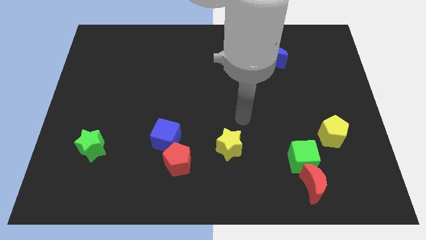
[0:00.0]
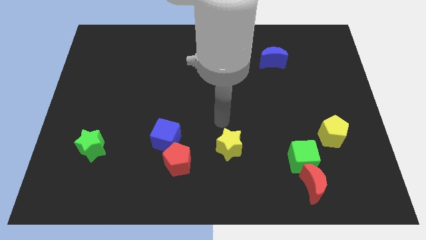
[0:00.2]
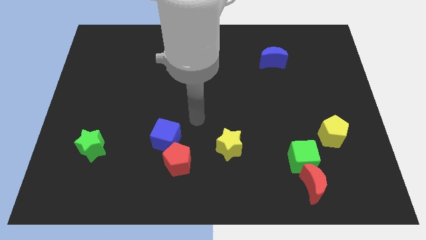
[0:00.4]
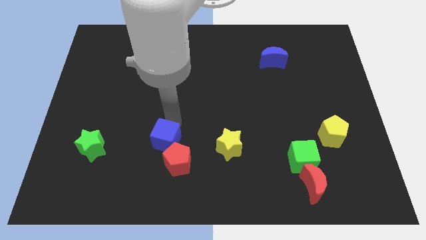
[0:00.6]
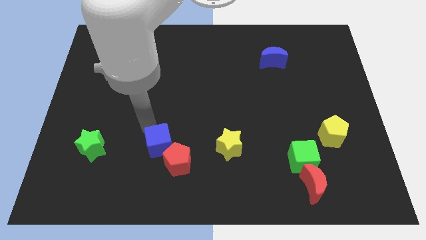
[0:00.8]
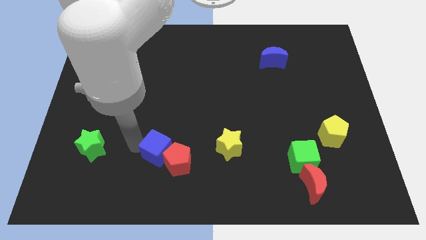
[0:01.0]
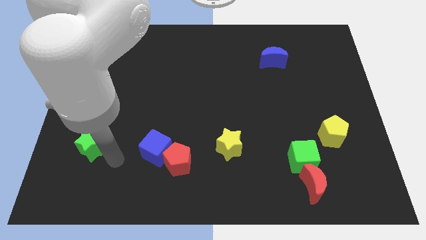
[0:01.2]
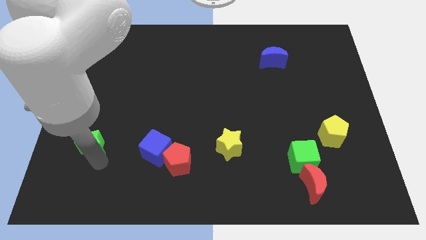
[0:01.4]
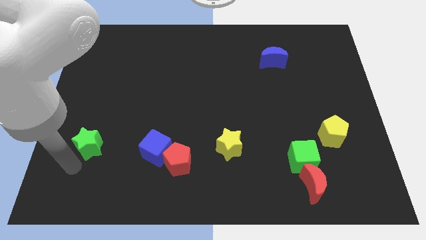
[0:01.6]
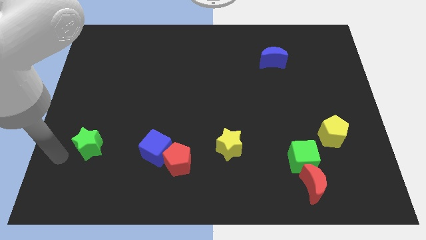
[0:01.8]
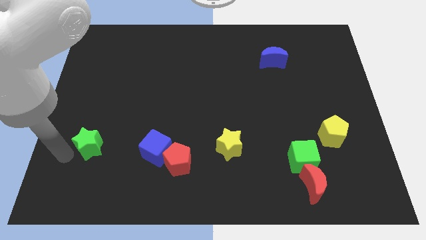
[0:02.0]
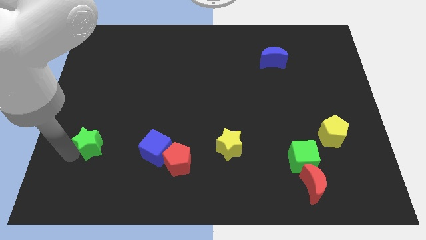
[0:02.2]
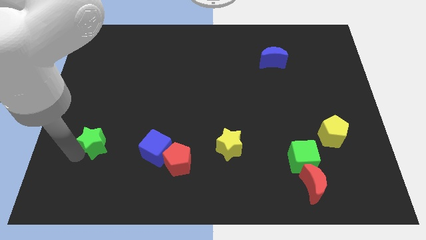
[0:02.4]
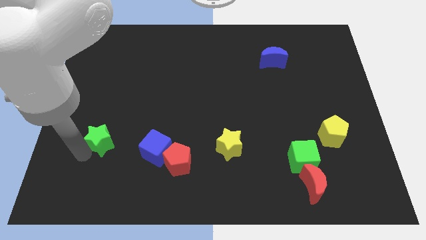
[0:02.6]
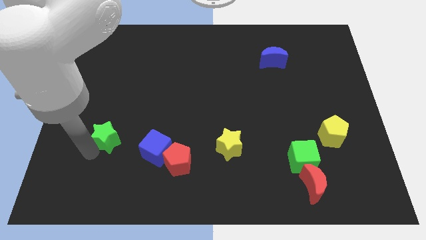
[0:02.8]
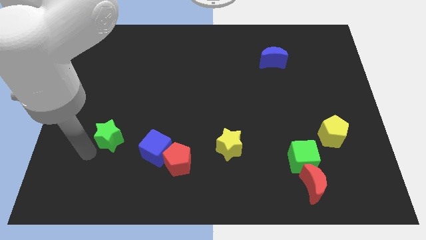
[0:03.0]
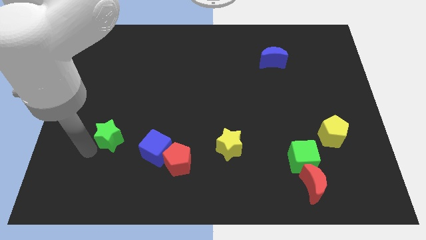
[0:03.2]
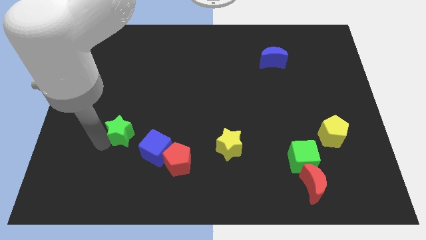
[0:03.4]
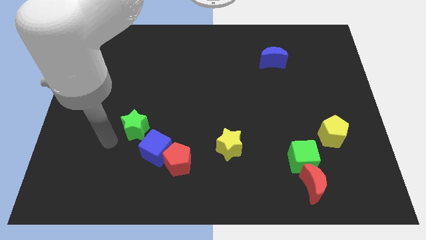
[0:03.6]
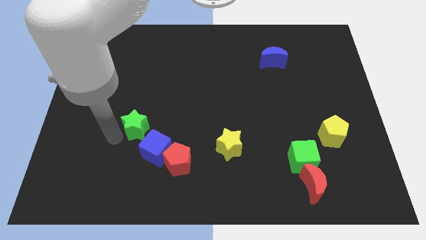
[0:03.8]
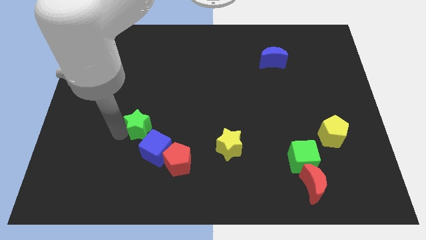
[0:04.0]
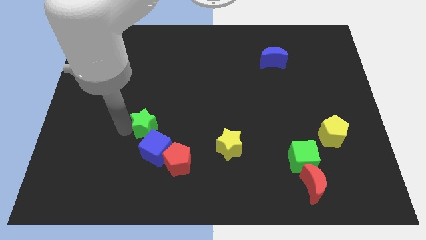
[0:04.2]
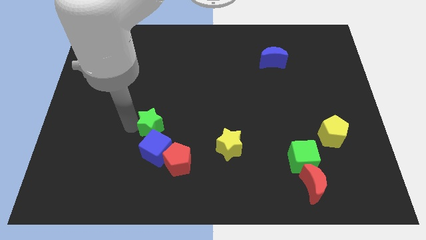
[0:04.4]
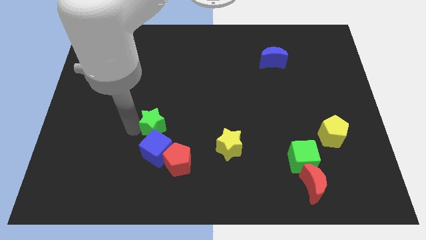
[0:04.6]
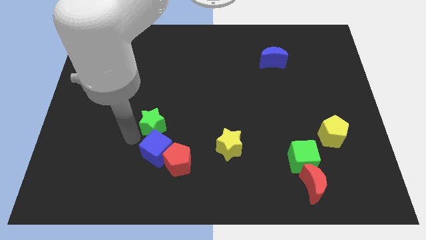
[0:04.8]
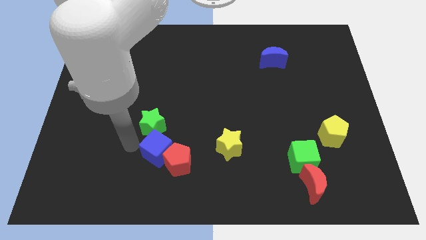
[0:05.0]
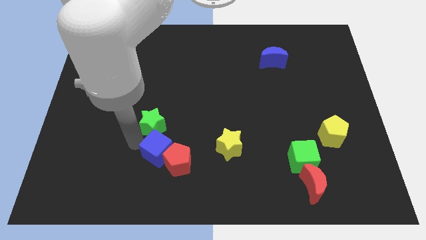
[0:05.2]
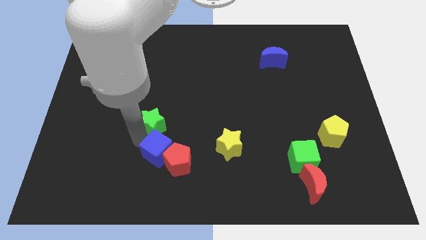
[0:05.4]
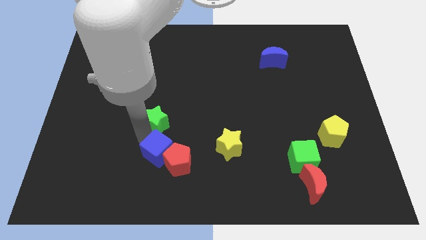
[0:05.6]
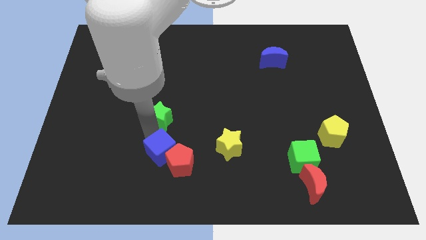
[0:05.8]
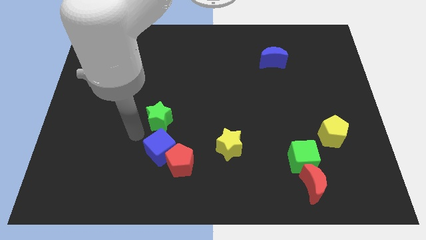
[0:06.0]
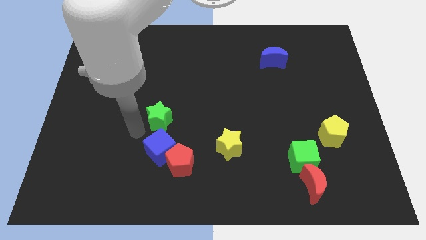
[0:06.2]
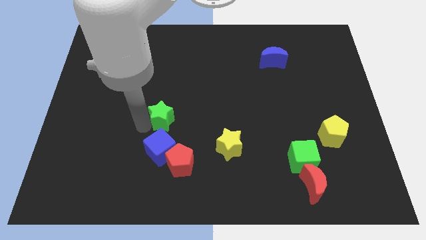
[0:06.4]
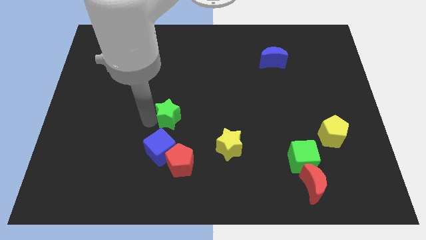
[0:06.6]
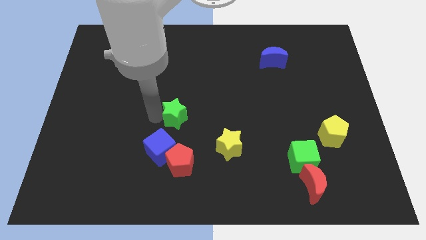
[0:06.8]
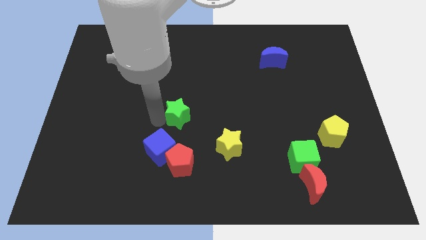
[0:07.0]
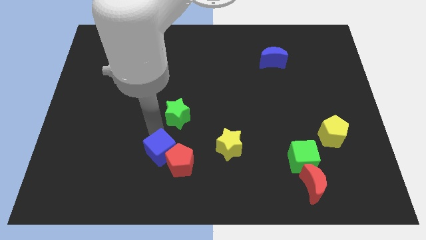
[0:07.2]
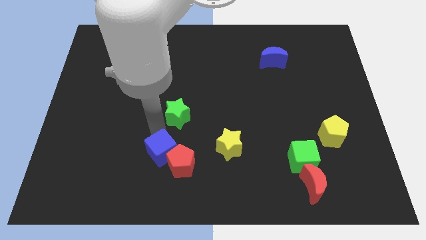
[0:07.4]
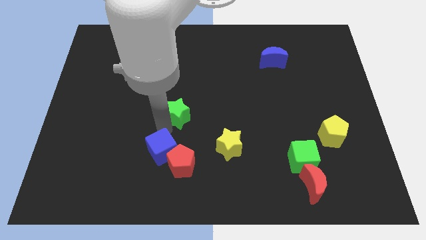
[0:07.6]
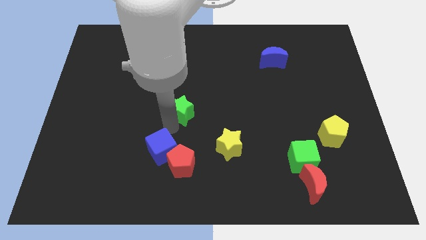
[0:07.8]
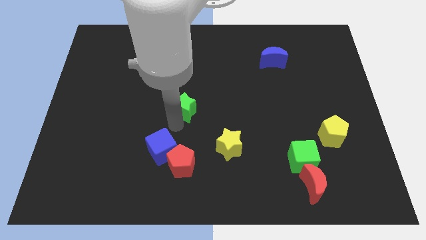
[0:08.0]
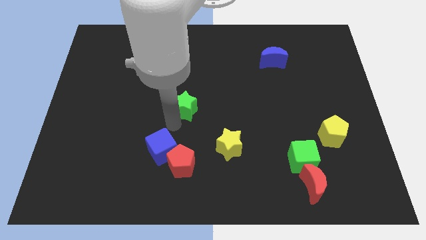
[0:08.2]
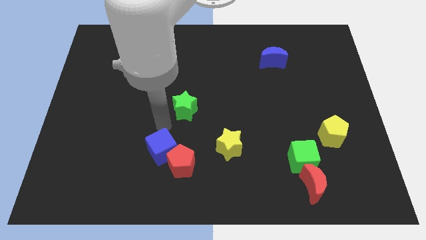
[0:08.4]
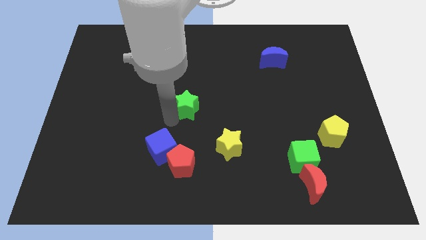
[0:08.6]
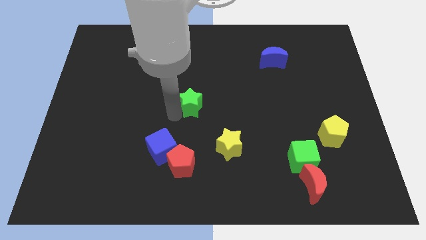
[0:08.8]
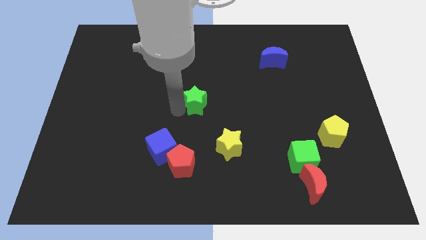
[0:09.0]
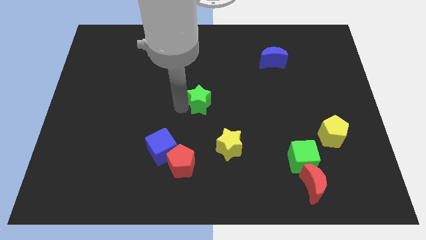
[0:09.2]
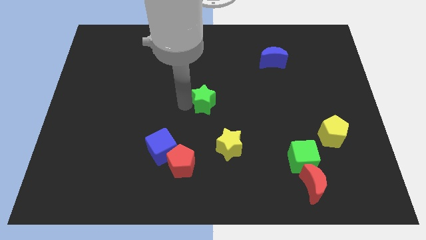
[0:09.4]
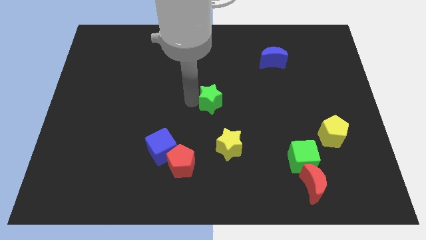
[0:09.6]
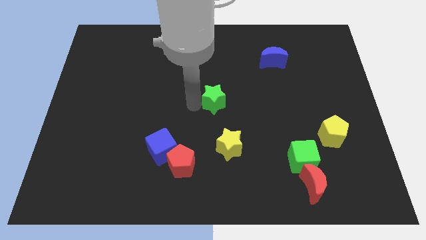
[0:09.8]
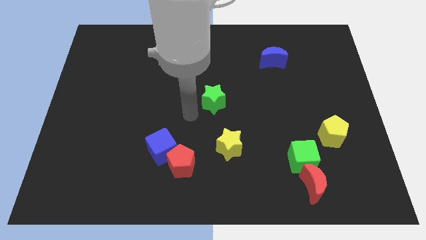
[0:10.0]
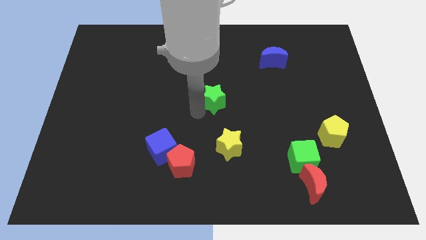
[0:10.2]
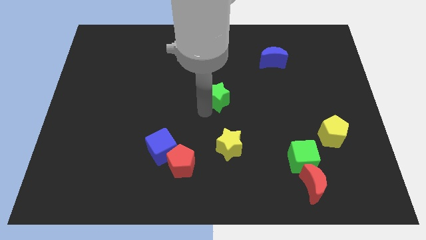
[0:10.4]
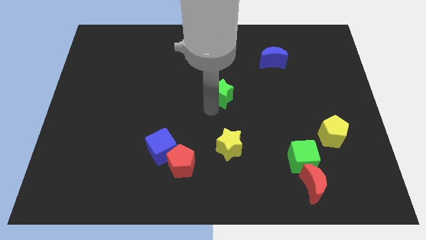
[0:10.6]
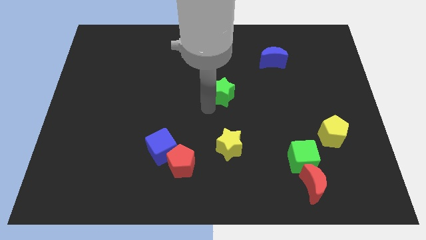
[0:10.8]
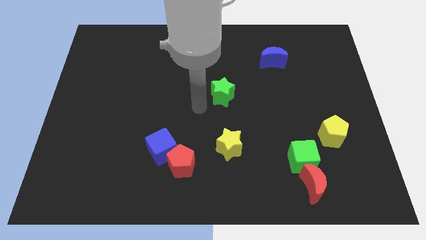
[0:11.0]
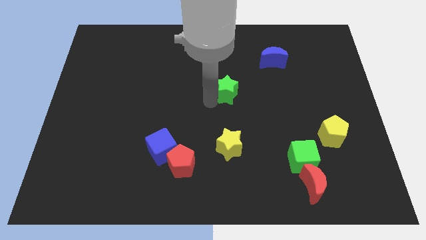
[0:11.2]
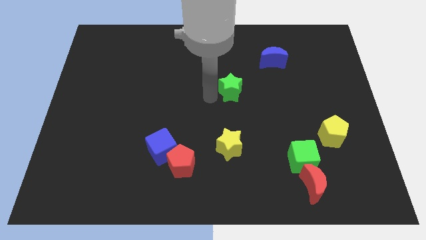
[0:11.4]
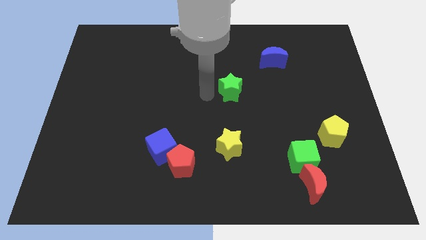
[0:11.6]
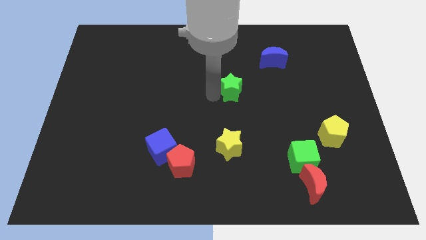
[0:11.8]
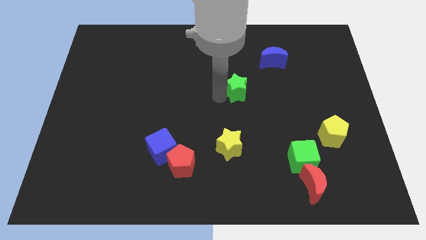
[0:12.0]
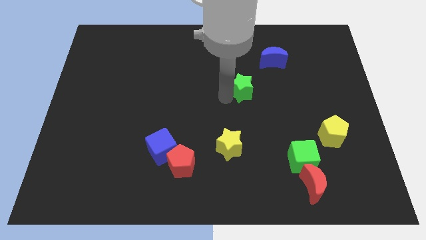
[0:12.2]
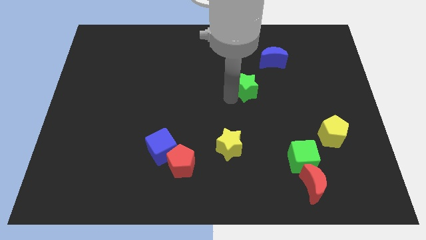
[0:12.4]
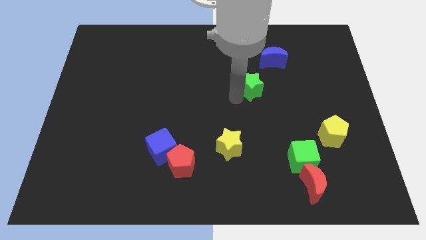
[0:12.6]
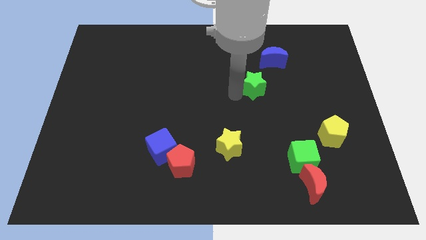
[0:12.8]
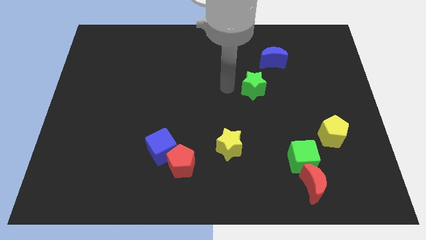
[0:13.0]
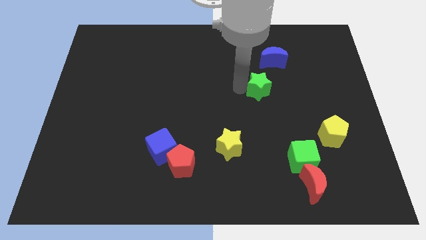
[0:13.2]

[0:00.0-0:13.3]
push the green star below the blue moon
